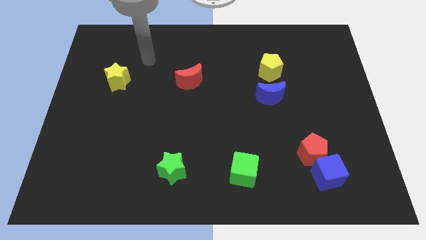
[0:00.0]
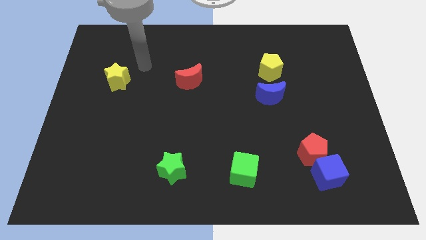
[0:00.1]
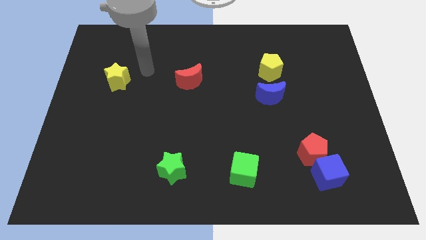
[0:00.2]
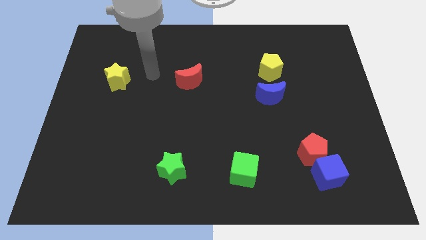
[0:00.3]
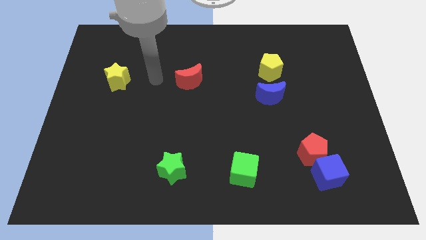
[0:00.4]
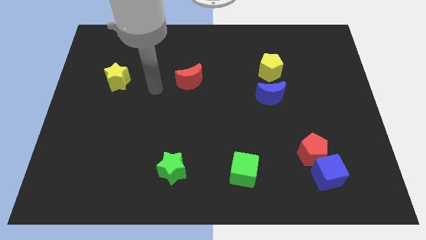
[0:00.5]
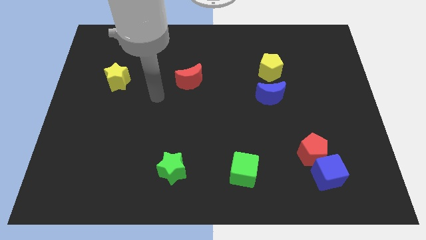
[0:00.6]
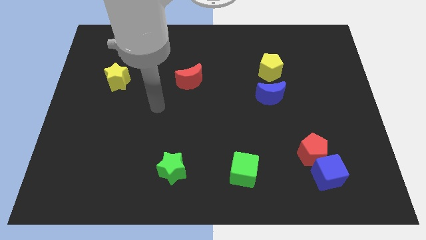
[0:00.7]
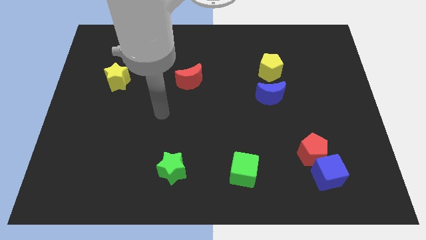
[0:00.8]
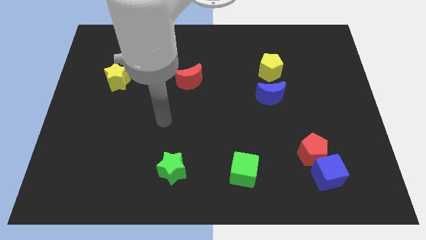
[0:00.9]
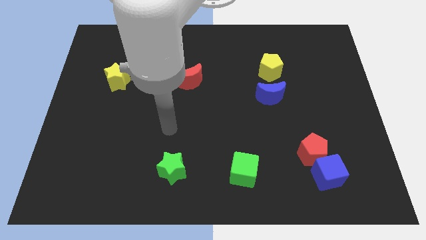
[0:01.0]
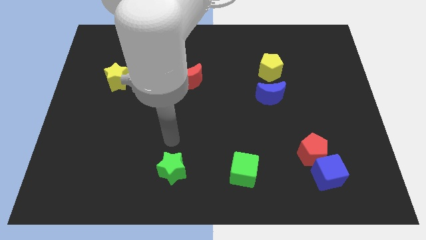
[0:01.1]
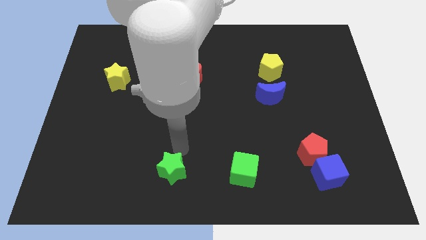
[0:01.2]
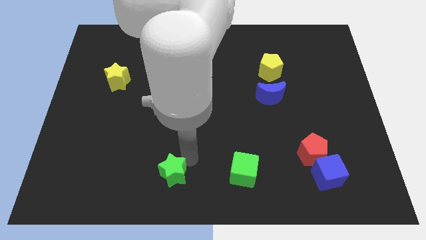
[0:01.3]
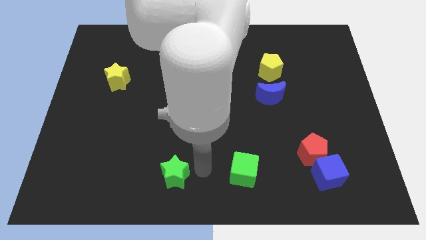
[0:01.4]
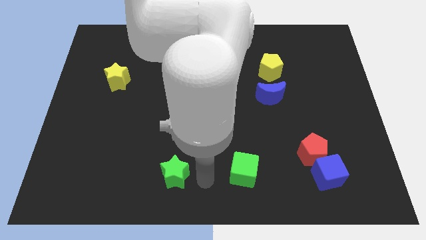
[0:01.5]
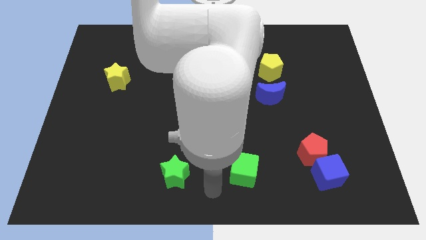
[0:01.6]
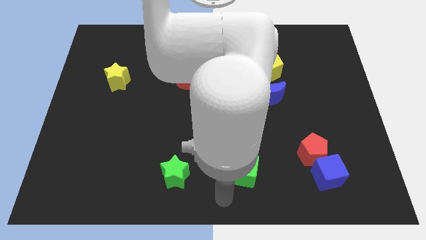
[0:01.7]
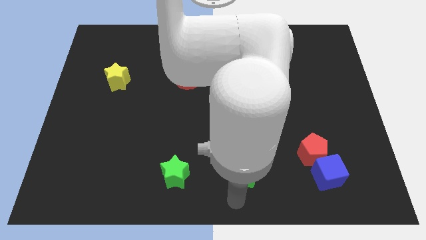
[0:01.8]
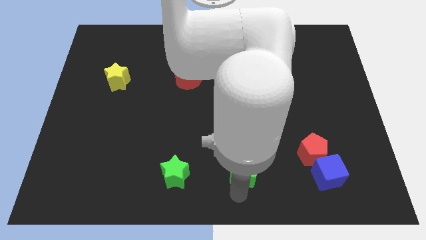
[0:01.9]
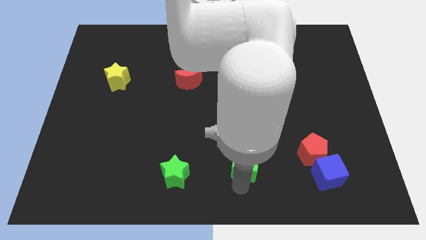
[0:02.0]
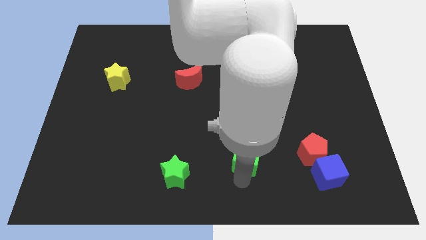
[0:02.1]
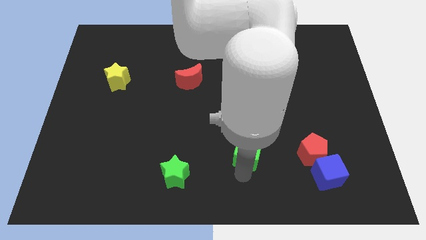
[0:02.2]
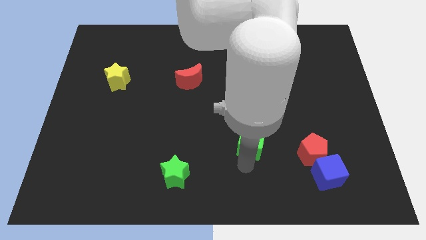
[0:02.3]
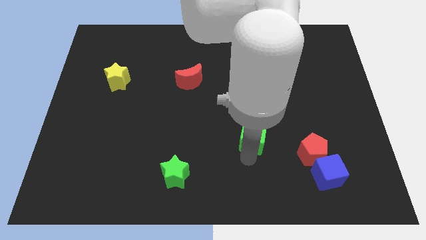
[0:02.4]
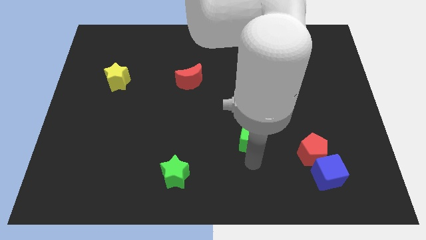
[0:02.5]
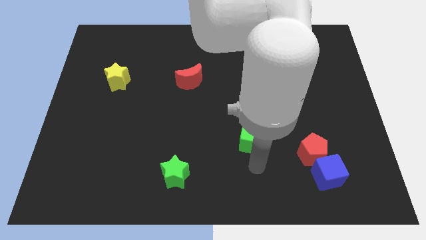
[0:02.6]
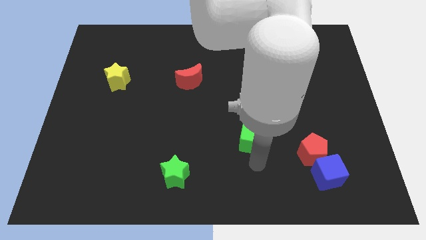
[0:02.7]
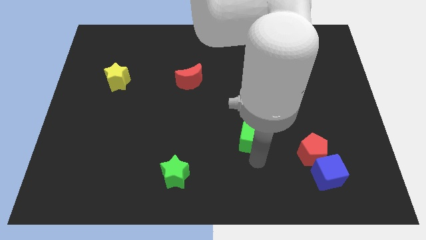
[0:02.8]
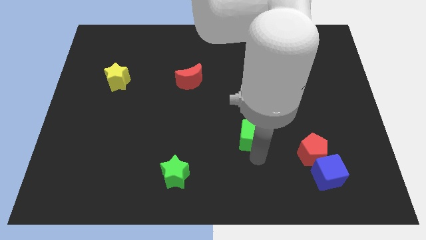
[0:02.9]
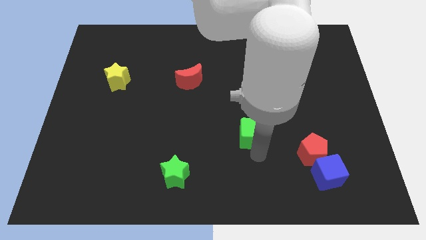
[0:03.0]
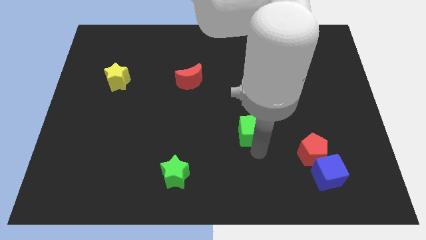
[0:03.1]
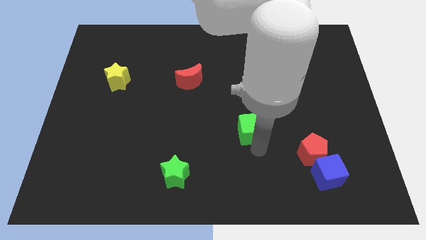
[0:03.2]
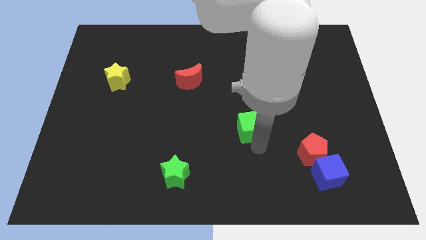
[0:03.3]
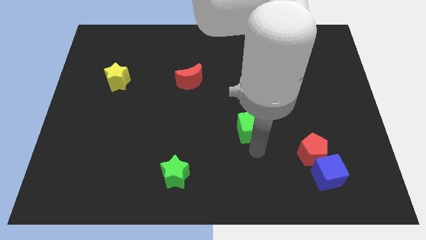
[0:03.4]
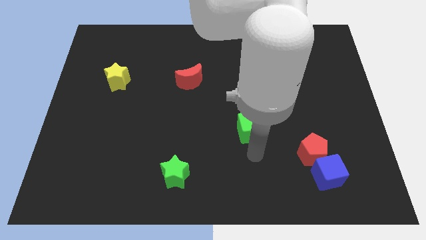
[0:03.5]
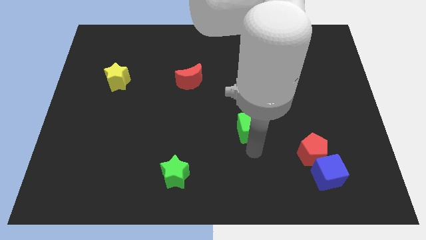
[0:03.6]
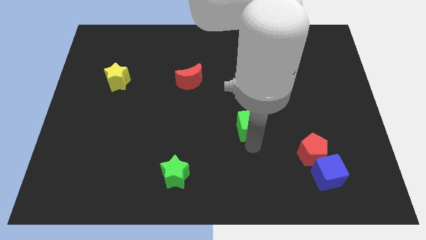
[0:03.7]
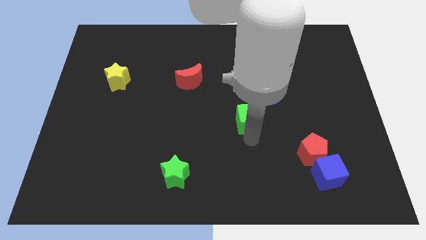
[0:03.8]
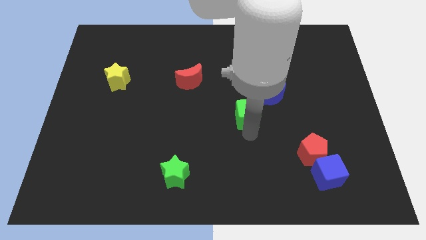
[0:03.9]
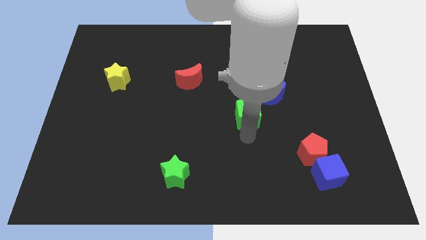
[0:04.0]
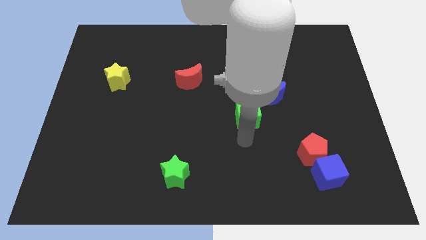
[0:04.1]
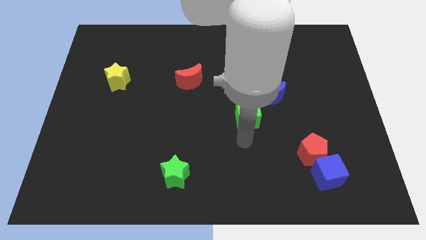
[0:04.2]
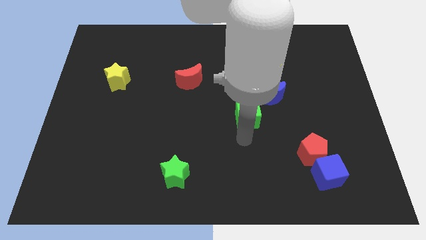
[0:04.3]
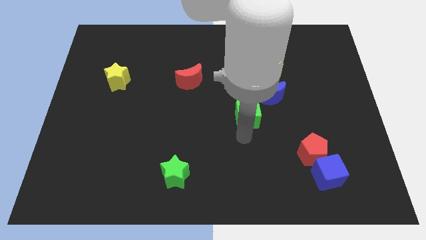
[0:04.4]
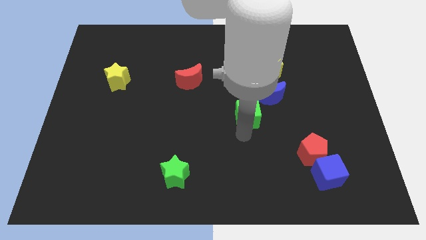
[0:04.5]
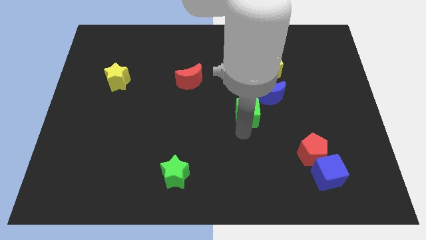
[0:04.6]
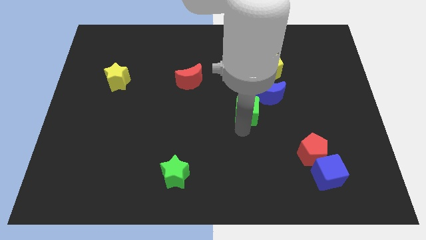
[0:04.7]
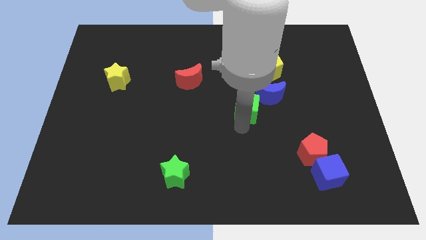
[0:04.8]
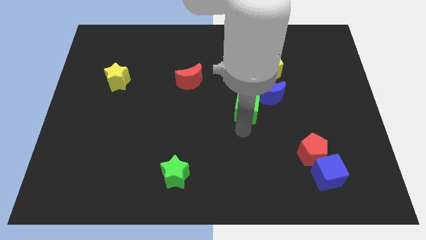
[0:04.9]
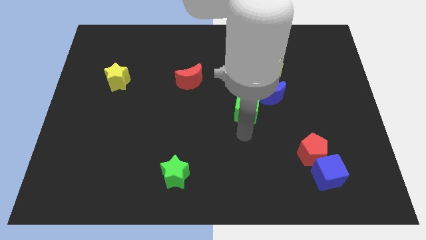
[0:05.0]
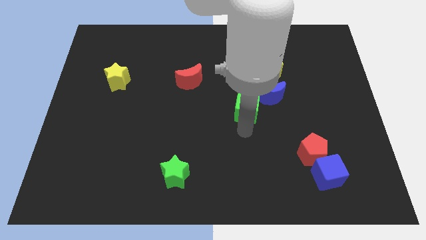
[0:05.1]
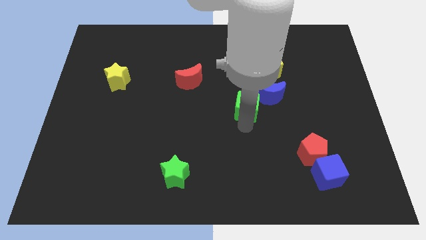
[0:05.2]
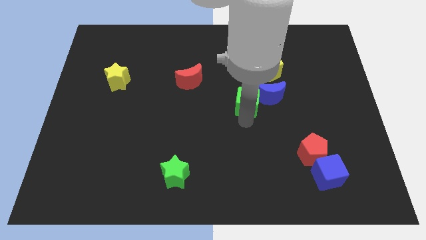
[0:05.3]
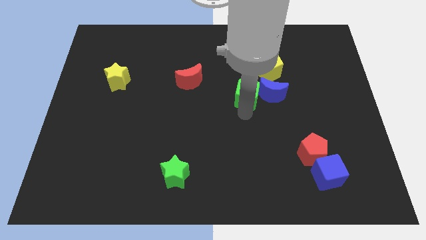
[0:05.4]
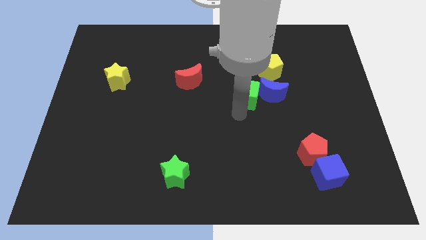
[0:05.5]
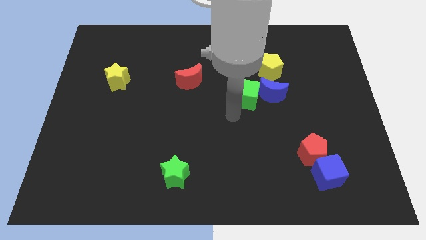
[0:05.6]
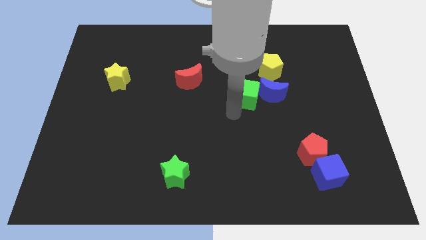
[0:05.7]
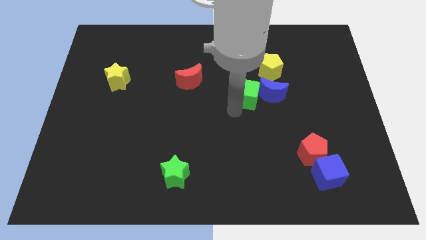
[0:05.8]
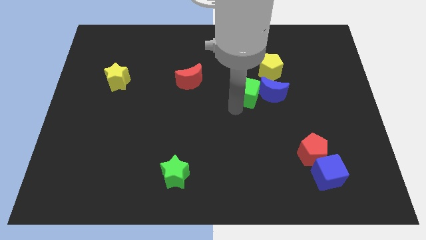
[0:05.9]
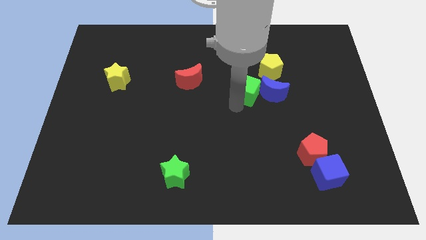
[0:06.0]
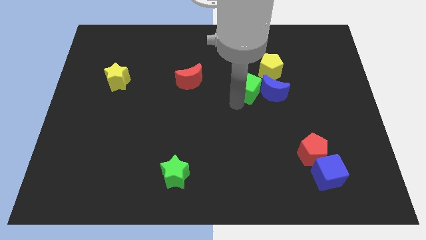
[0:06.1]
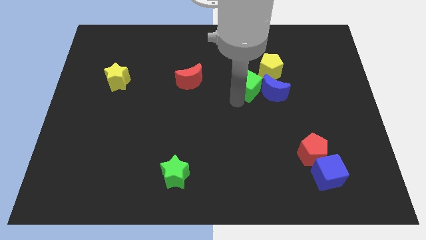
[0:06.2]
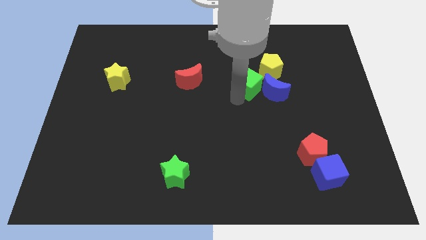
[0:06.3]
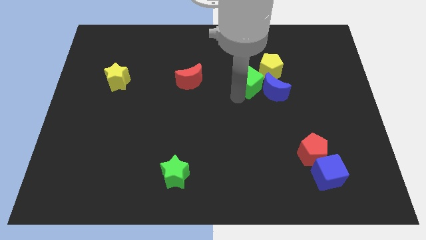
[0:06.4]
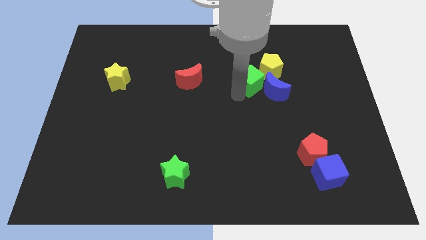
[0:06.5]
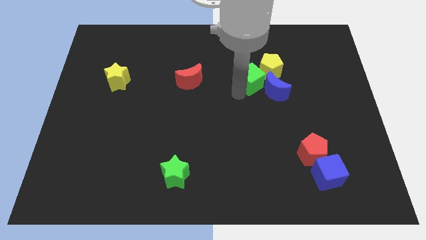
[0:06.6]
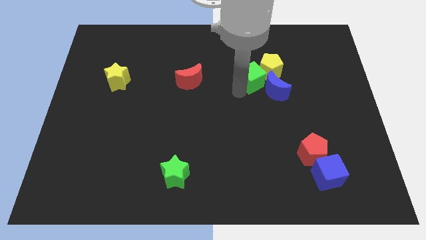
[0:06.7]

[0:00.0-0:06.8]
put the green cube close to the yellow pentagon

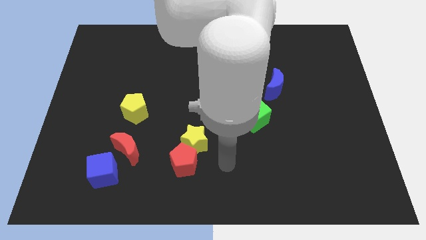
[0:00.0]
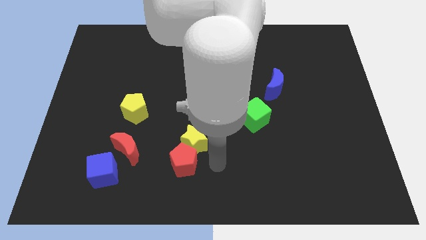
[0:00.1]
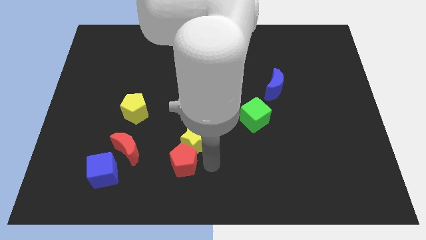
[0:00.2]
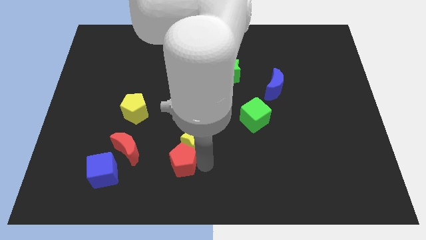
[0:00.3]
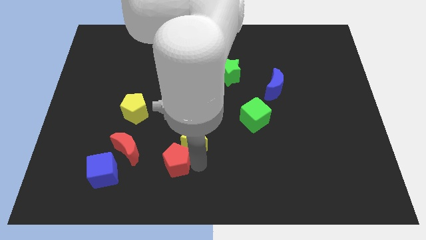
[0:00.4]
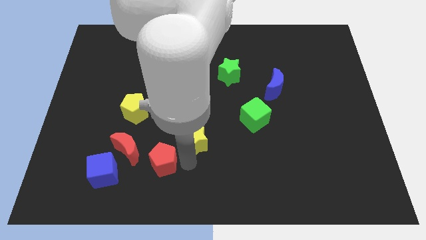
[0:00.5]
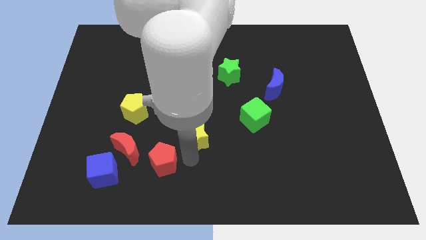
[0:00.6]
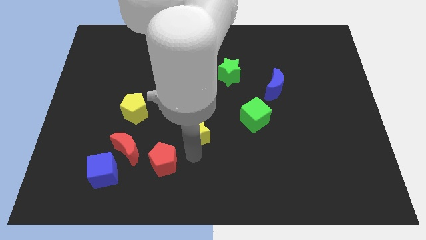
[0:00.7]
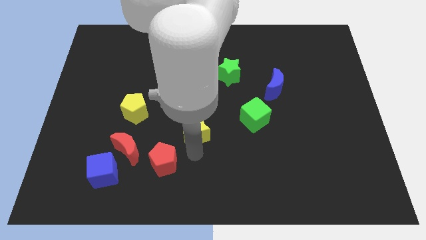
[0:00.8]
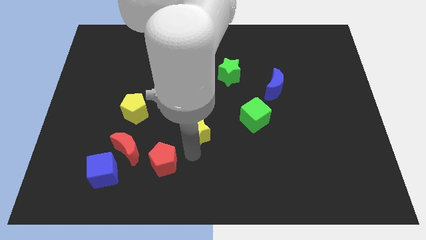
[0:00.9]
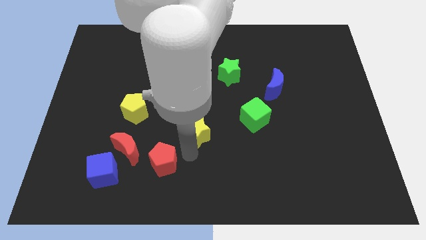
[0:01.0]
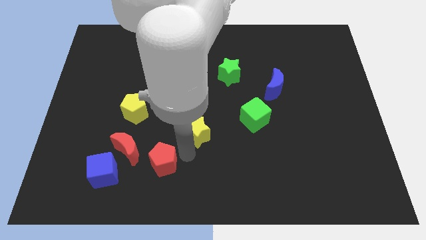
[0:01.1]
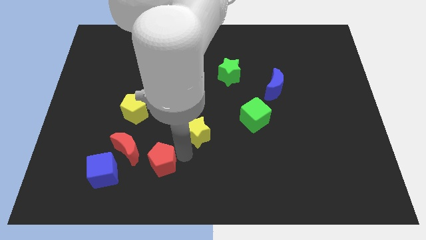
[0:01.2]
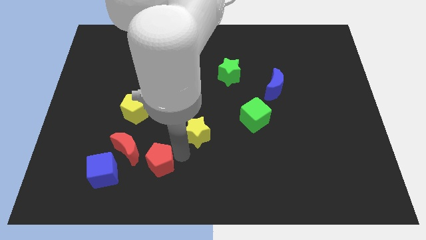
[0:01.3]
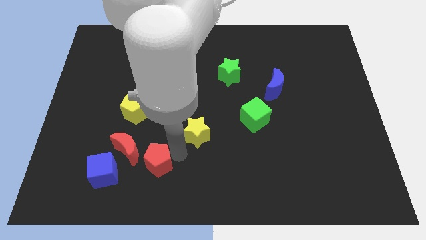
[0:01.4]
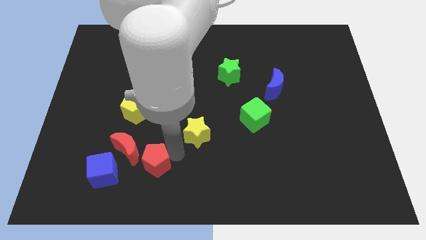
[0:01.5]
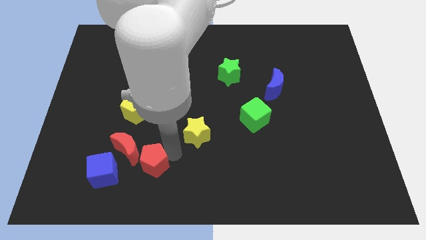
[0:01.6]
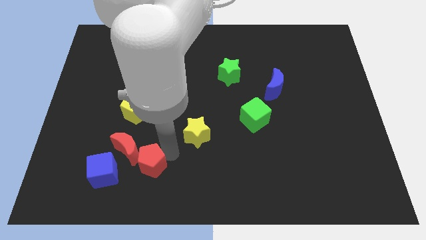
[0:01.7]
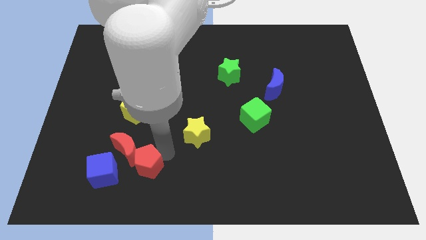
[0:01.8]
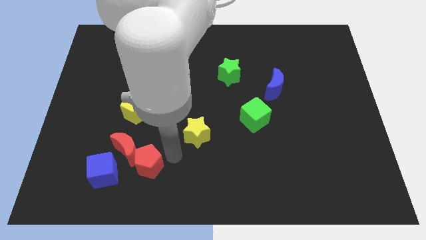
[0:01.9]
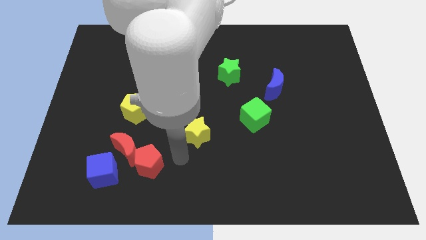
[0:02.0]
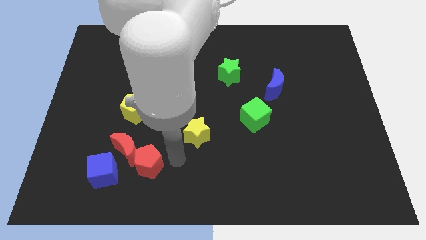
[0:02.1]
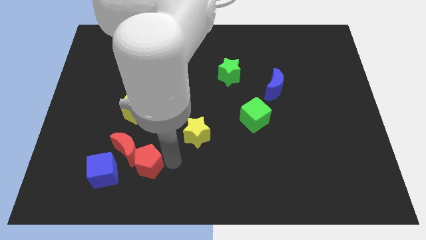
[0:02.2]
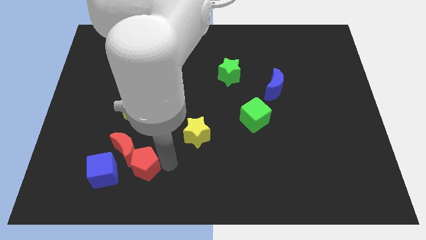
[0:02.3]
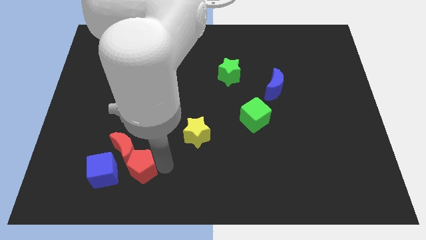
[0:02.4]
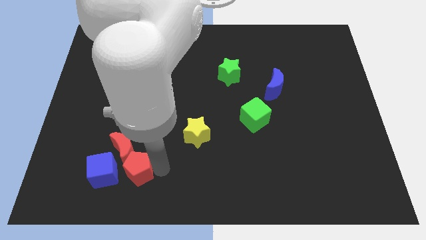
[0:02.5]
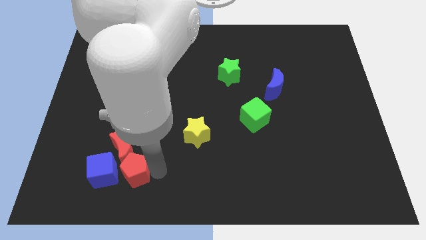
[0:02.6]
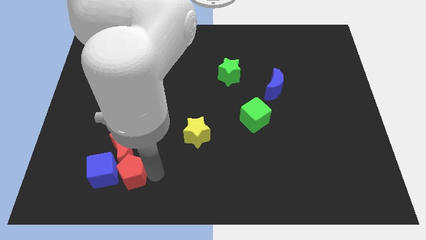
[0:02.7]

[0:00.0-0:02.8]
slide the red pentagon to the blue cube
